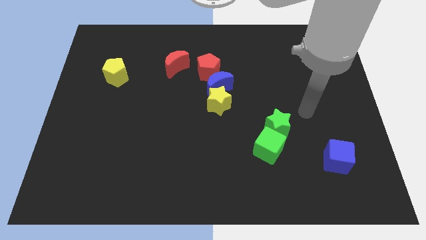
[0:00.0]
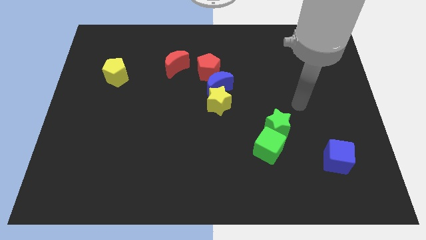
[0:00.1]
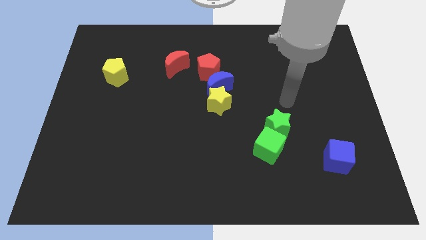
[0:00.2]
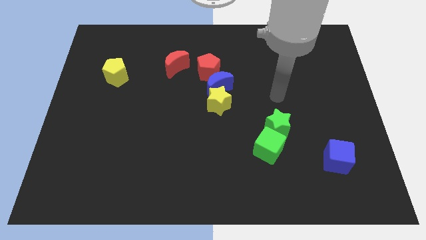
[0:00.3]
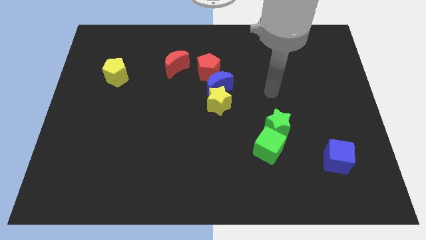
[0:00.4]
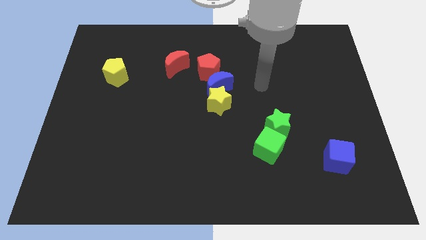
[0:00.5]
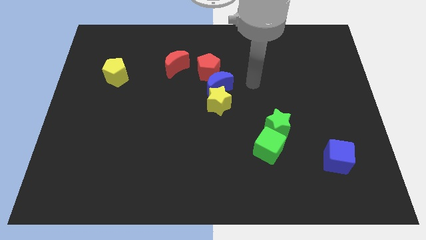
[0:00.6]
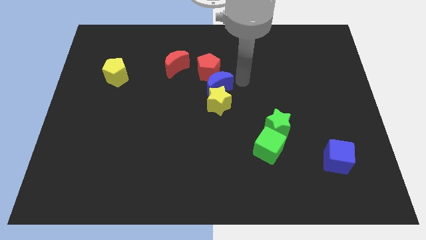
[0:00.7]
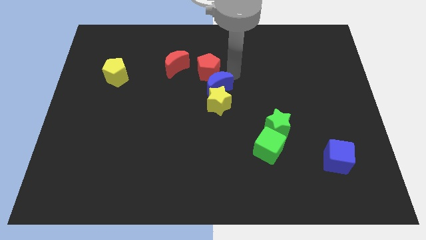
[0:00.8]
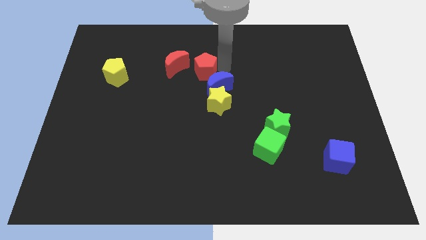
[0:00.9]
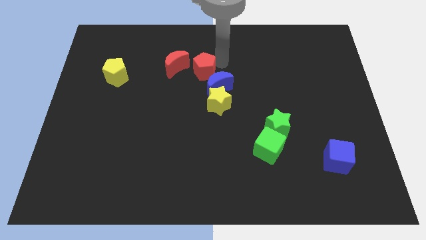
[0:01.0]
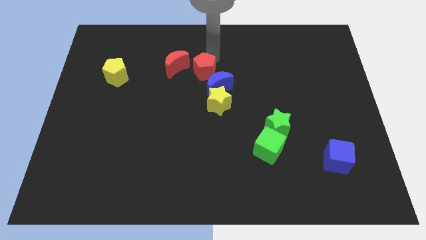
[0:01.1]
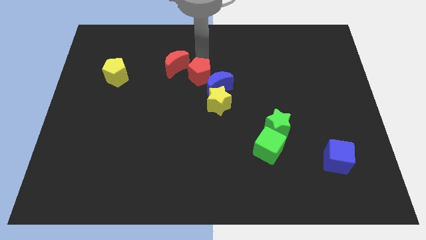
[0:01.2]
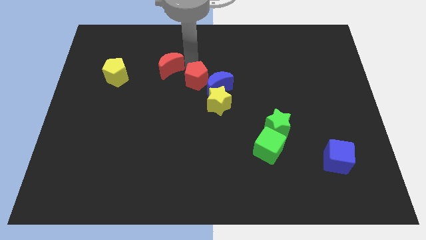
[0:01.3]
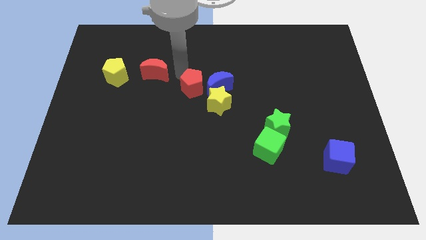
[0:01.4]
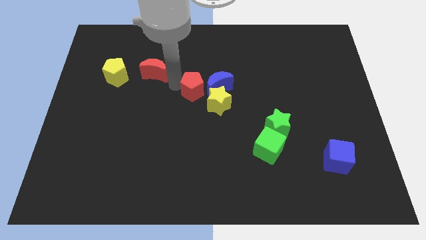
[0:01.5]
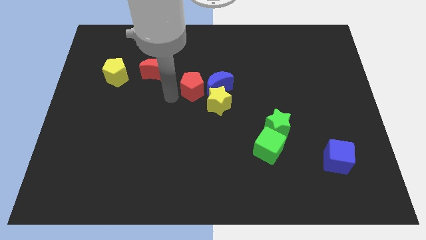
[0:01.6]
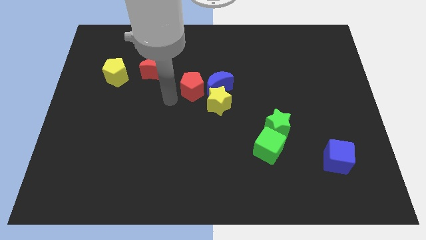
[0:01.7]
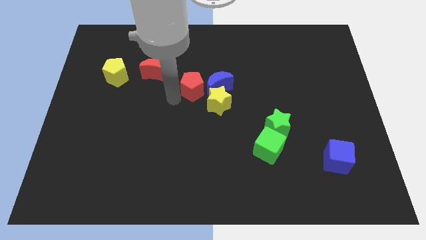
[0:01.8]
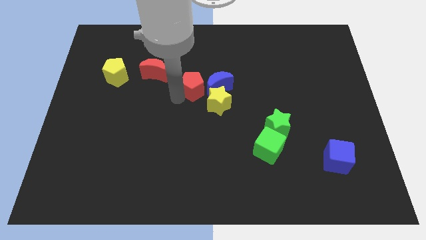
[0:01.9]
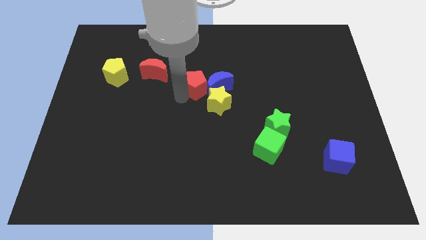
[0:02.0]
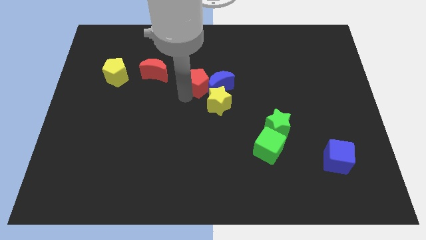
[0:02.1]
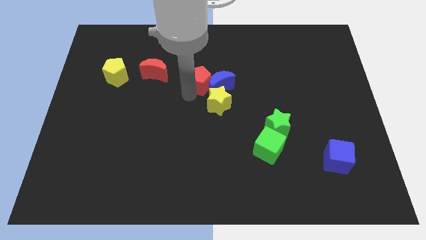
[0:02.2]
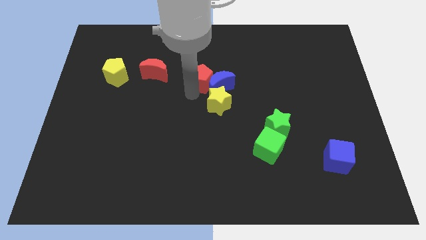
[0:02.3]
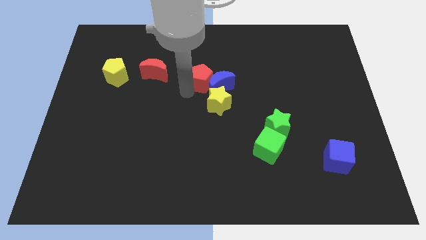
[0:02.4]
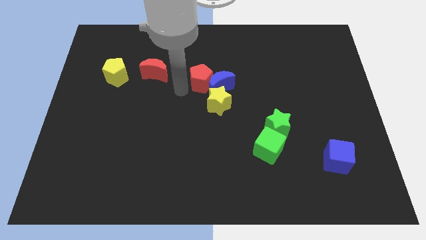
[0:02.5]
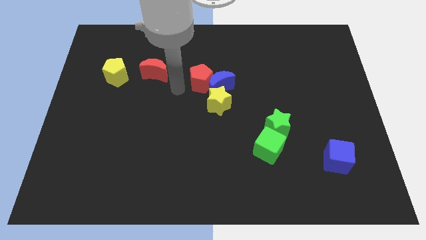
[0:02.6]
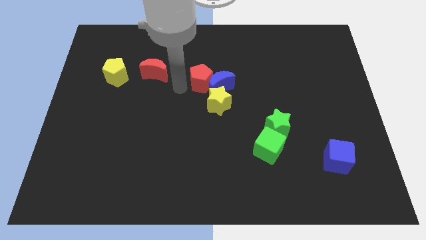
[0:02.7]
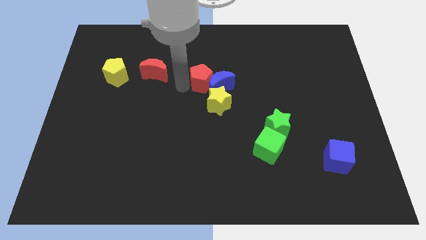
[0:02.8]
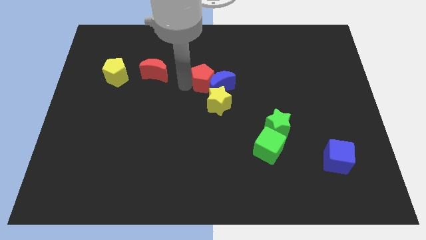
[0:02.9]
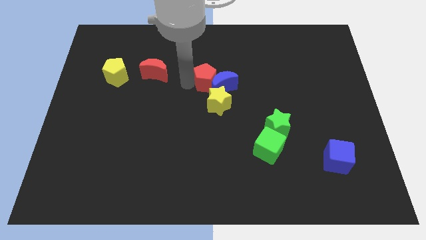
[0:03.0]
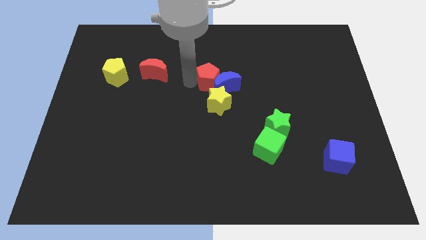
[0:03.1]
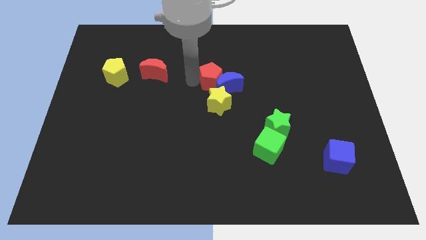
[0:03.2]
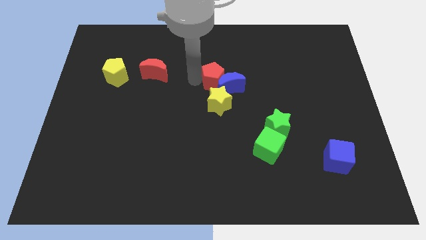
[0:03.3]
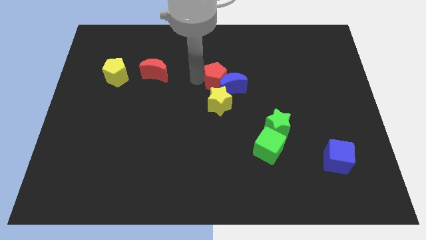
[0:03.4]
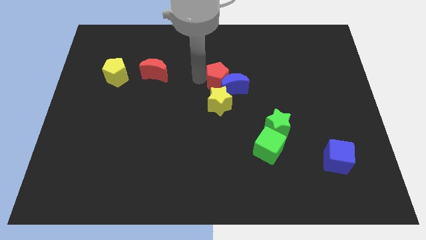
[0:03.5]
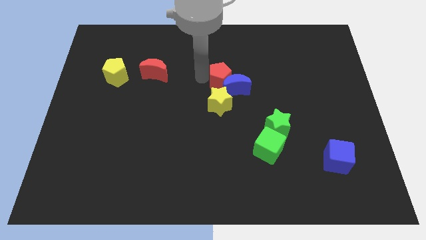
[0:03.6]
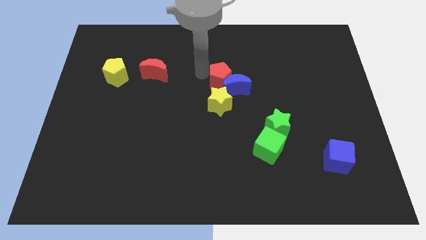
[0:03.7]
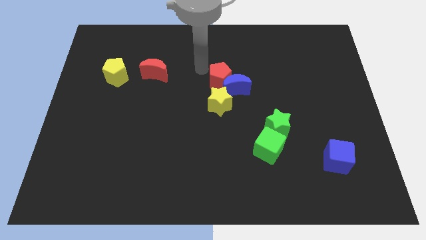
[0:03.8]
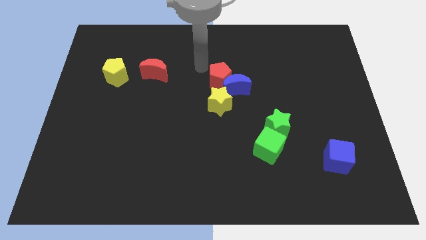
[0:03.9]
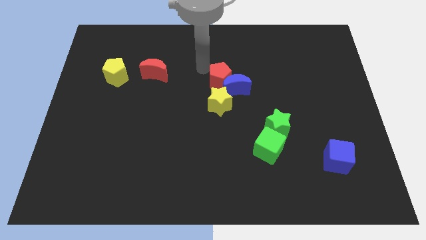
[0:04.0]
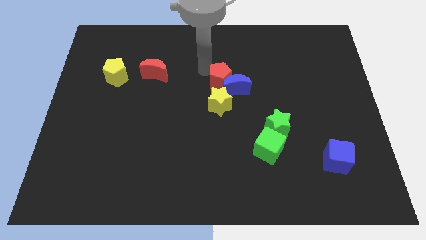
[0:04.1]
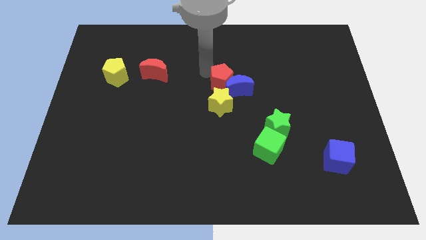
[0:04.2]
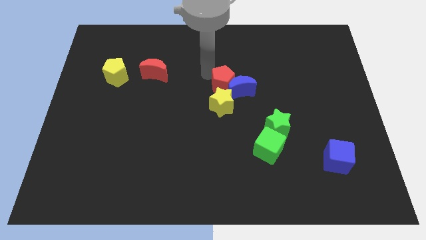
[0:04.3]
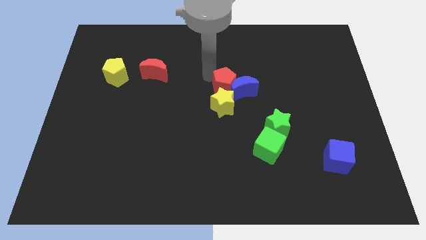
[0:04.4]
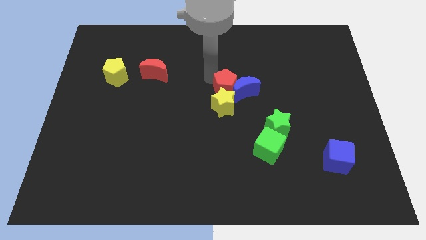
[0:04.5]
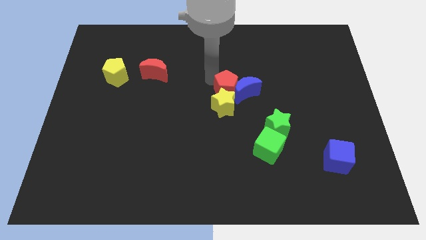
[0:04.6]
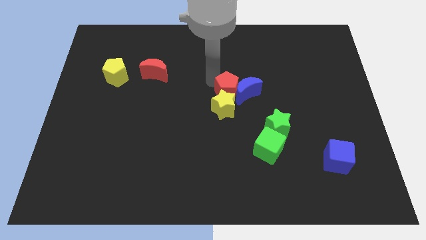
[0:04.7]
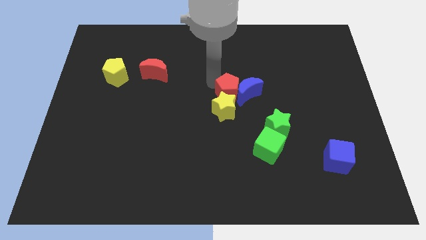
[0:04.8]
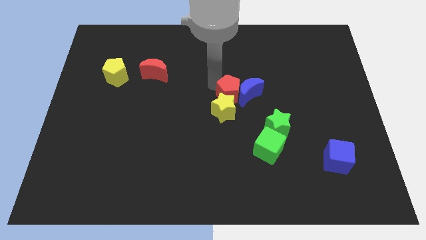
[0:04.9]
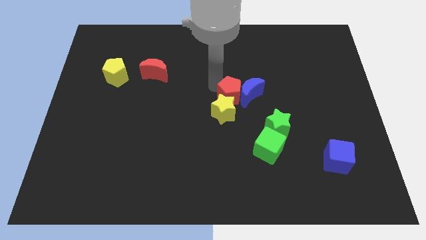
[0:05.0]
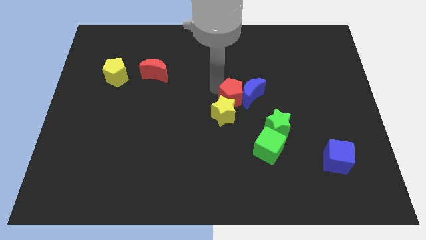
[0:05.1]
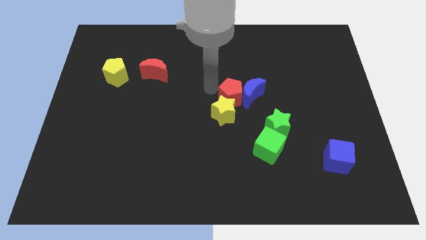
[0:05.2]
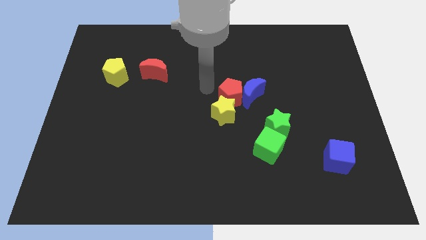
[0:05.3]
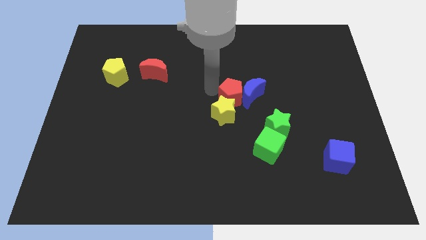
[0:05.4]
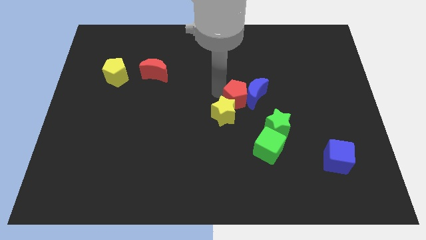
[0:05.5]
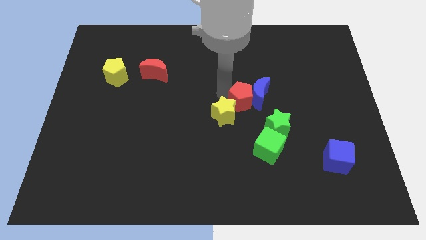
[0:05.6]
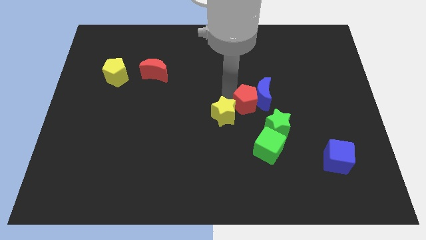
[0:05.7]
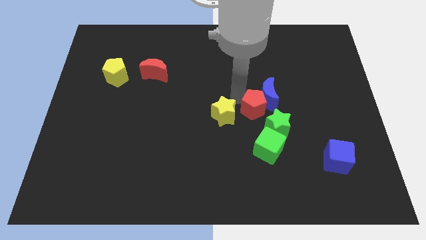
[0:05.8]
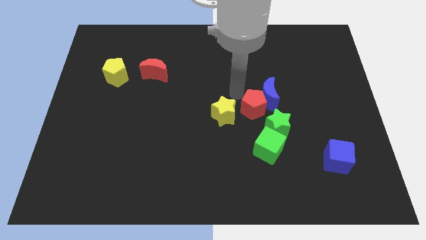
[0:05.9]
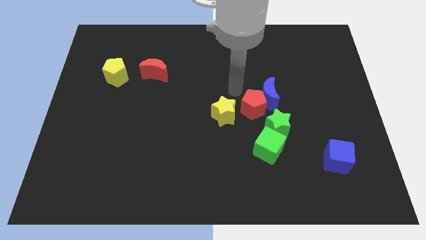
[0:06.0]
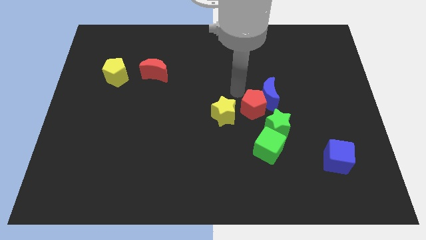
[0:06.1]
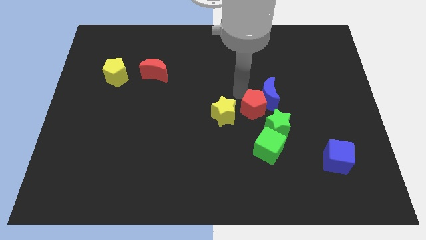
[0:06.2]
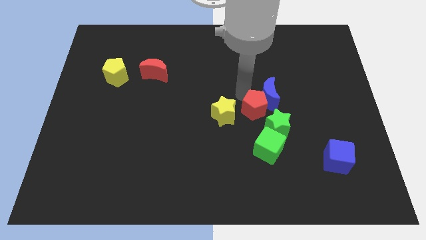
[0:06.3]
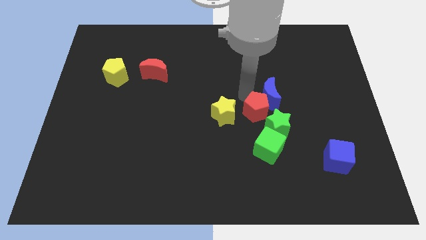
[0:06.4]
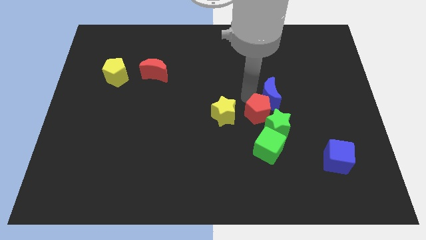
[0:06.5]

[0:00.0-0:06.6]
move the red pentagon close to the green star

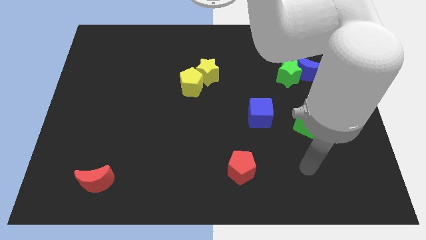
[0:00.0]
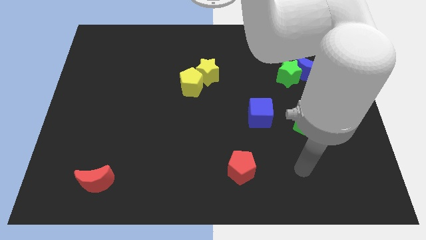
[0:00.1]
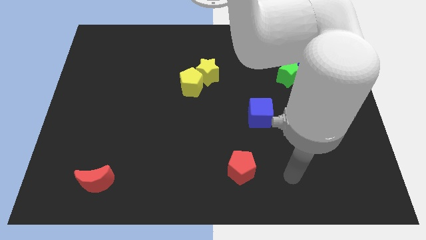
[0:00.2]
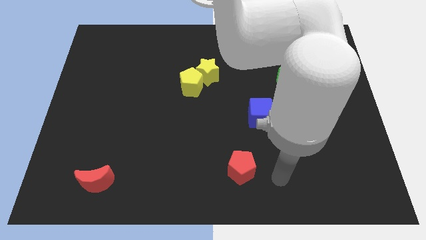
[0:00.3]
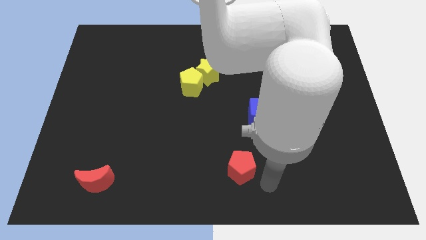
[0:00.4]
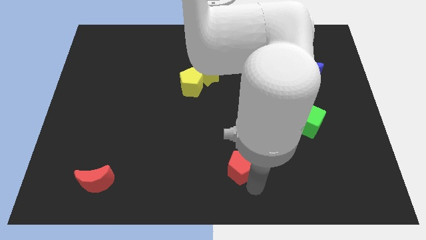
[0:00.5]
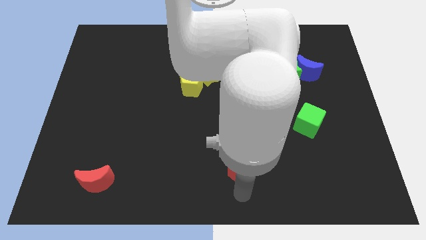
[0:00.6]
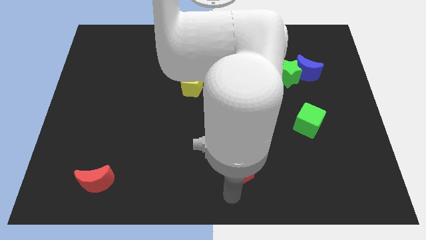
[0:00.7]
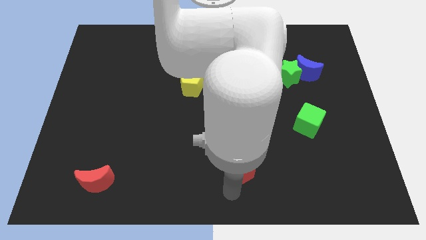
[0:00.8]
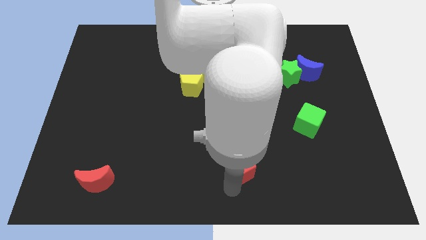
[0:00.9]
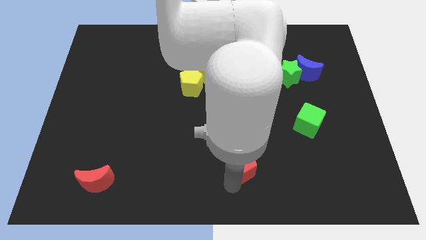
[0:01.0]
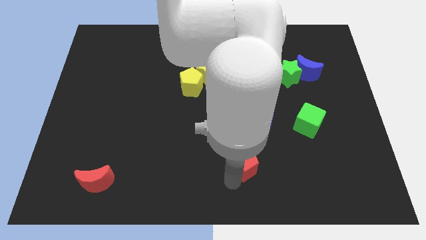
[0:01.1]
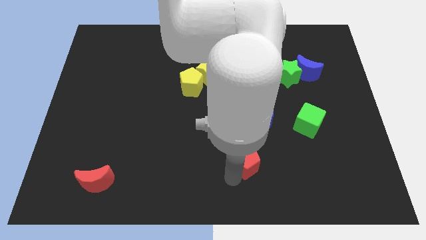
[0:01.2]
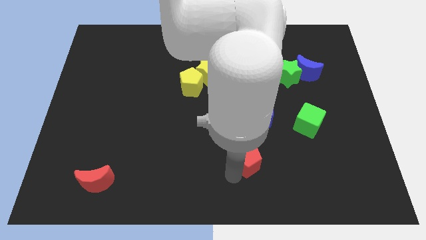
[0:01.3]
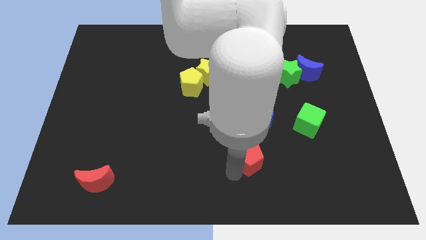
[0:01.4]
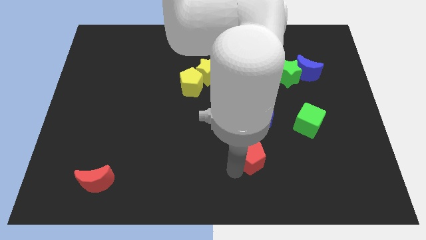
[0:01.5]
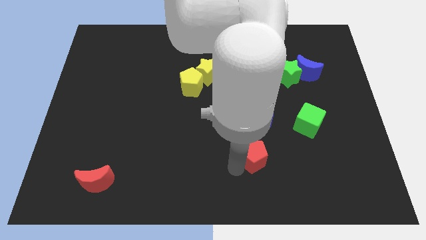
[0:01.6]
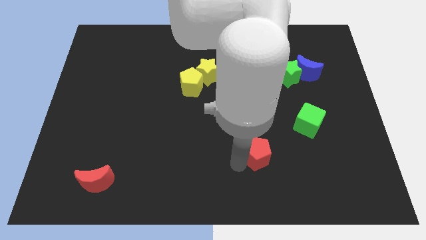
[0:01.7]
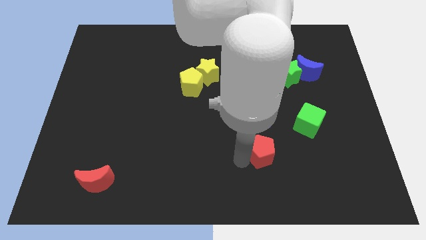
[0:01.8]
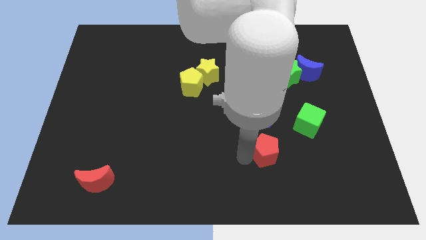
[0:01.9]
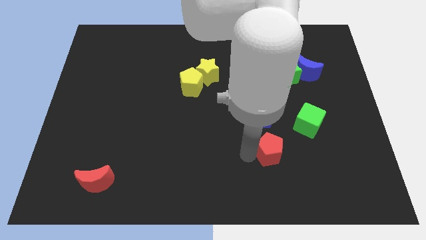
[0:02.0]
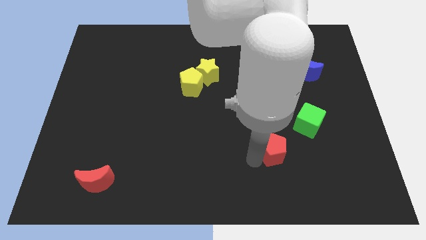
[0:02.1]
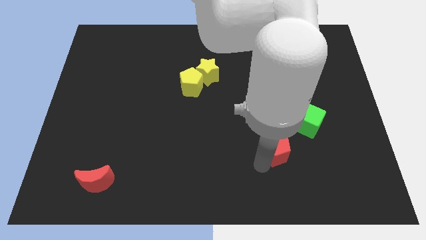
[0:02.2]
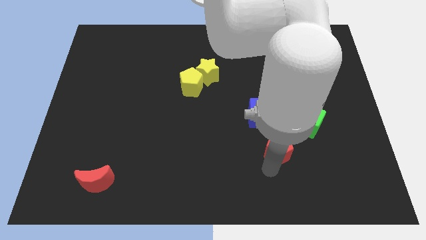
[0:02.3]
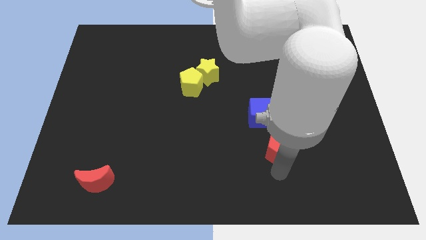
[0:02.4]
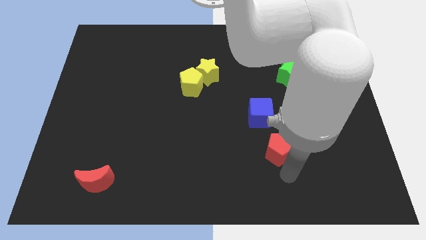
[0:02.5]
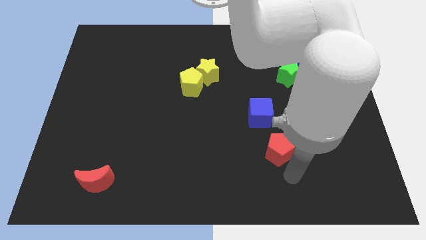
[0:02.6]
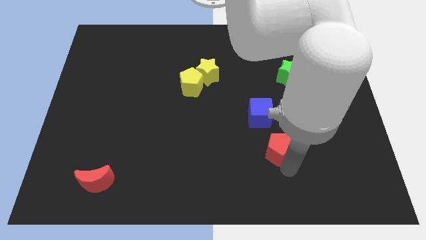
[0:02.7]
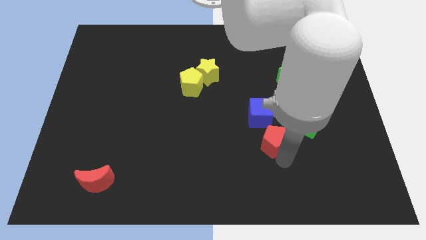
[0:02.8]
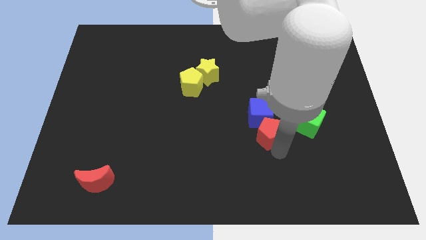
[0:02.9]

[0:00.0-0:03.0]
push the red pentagon to the blue cube
